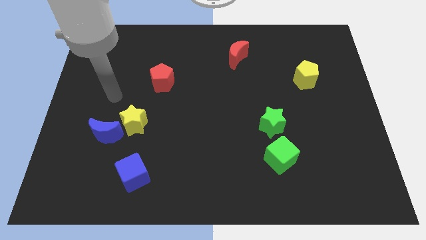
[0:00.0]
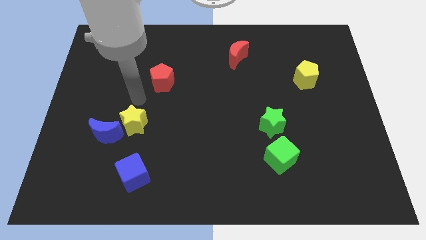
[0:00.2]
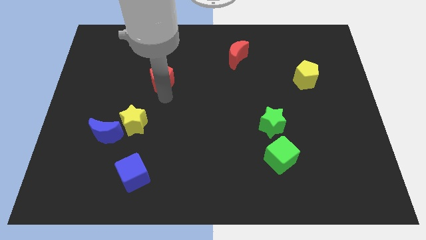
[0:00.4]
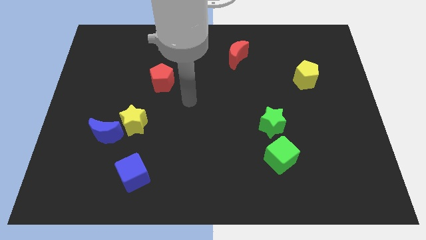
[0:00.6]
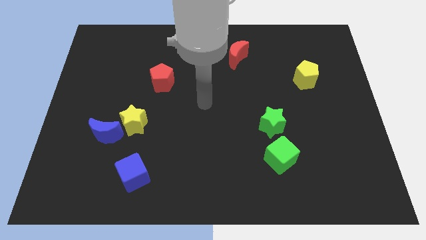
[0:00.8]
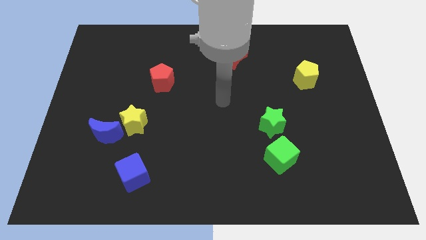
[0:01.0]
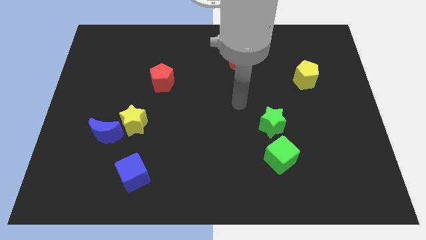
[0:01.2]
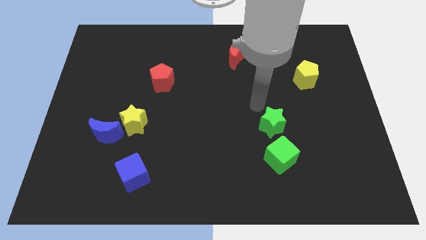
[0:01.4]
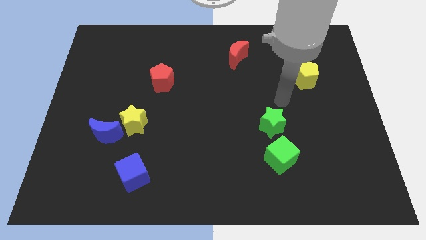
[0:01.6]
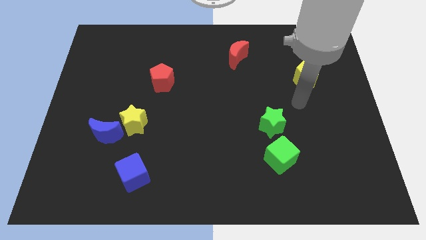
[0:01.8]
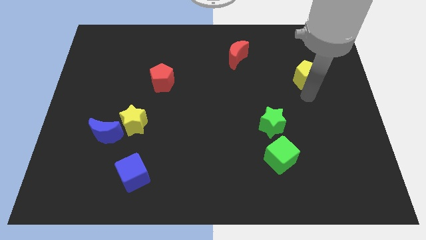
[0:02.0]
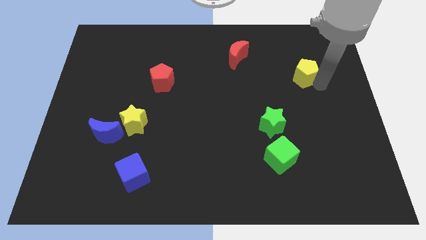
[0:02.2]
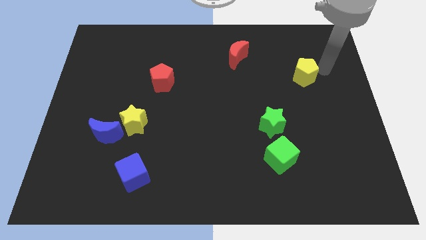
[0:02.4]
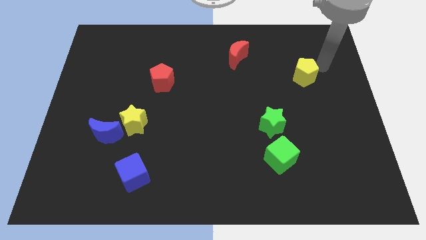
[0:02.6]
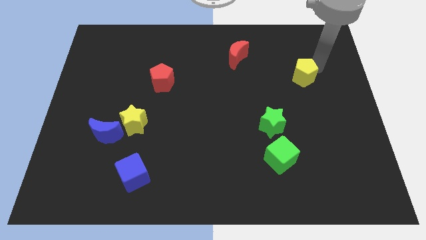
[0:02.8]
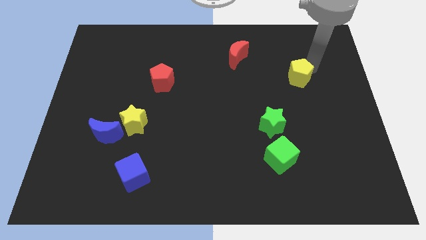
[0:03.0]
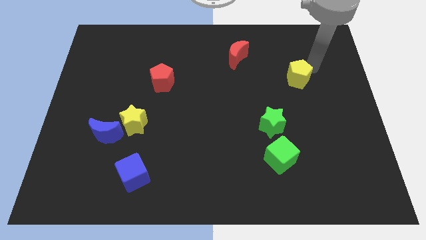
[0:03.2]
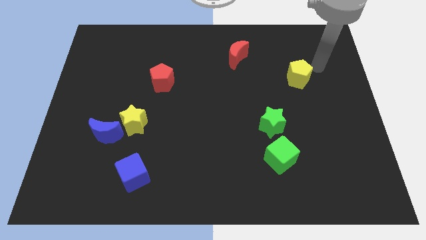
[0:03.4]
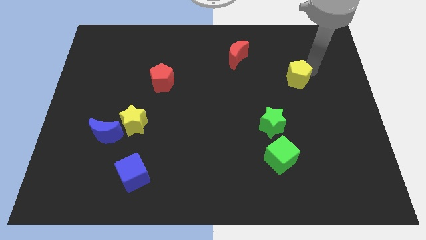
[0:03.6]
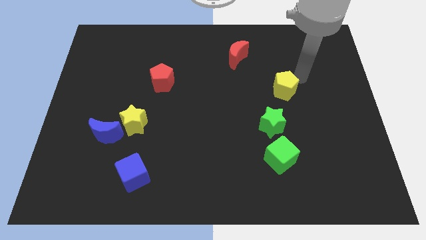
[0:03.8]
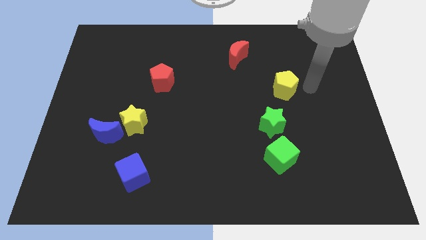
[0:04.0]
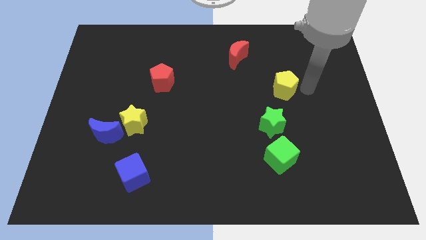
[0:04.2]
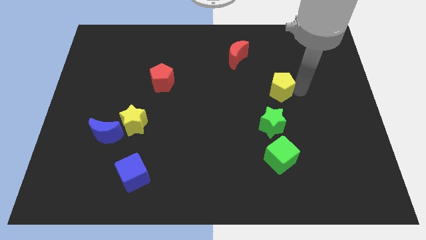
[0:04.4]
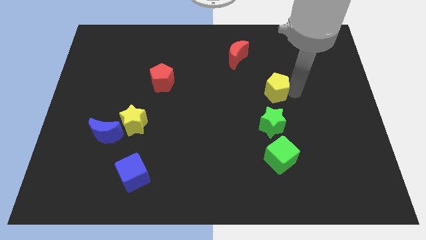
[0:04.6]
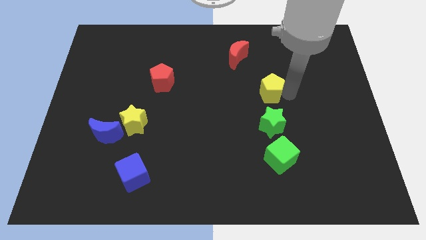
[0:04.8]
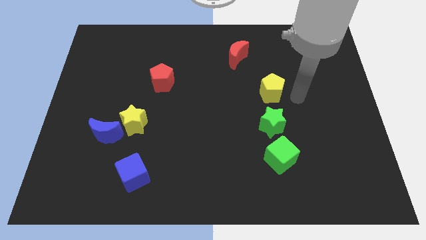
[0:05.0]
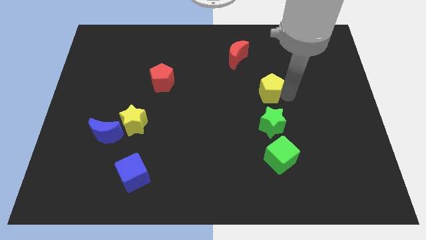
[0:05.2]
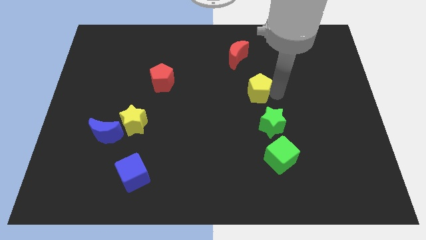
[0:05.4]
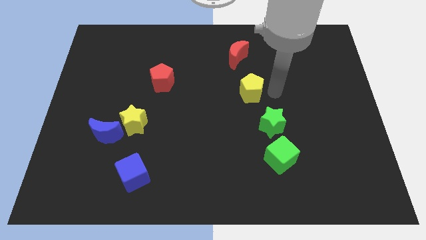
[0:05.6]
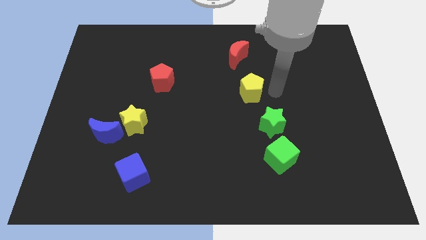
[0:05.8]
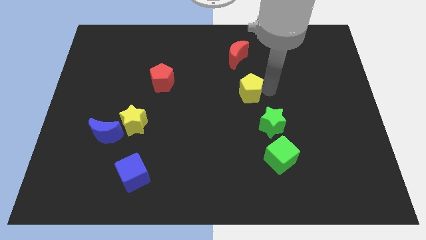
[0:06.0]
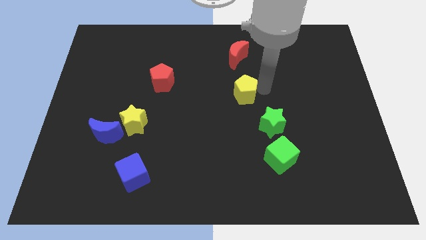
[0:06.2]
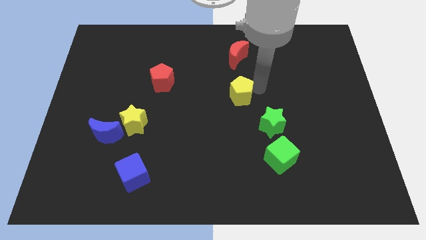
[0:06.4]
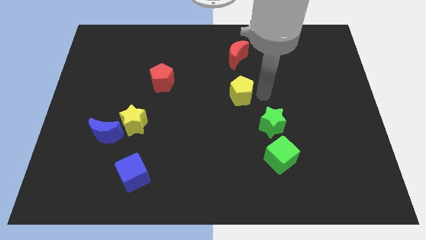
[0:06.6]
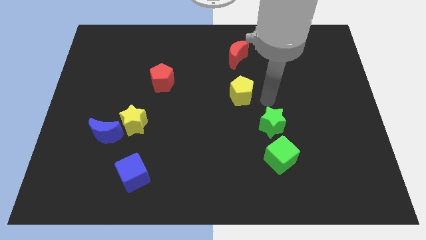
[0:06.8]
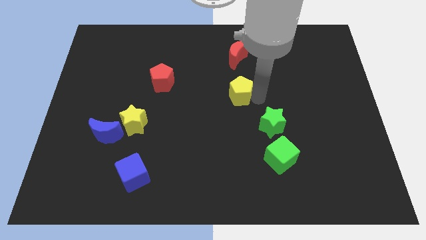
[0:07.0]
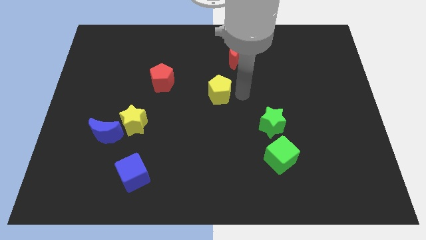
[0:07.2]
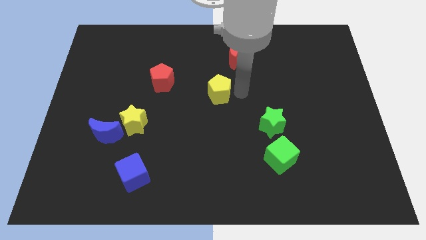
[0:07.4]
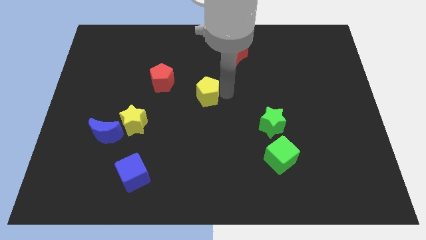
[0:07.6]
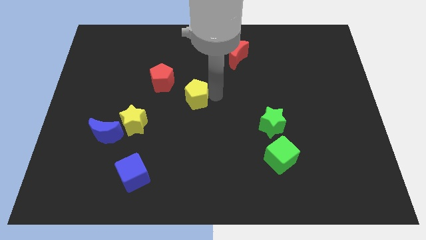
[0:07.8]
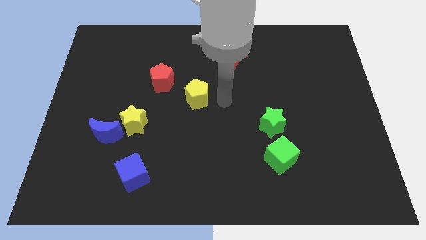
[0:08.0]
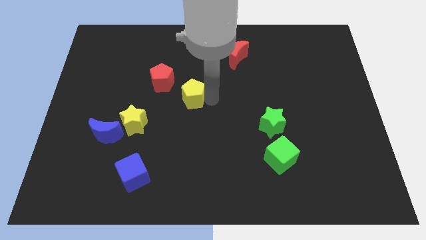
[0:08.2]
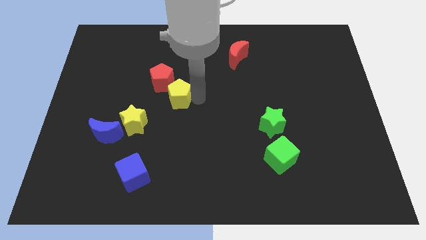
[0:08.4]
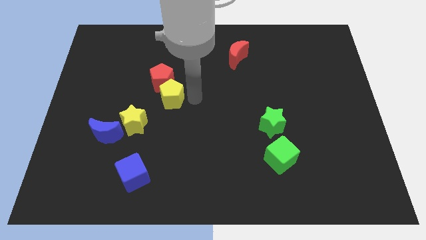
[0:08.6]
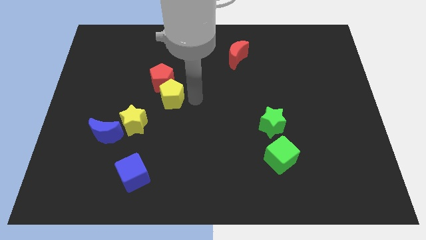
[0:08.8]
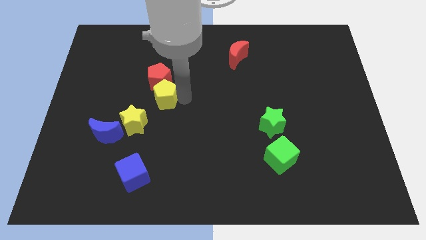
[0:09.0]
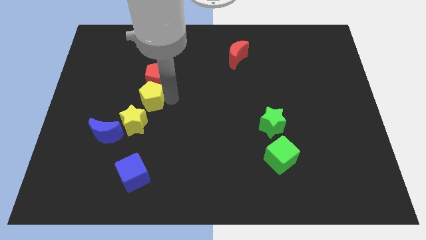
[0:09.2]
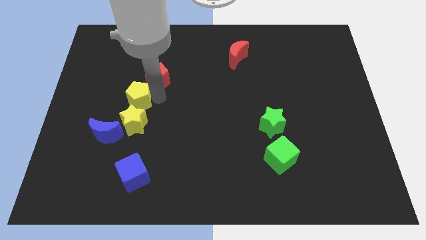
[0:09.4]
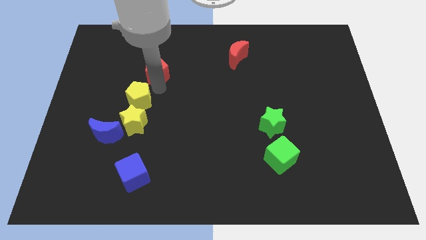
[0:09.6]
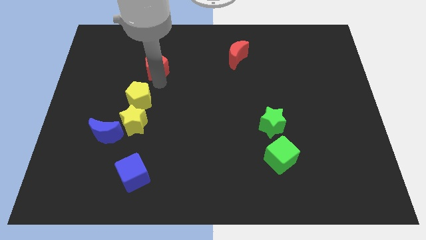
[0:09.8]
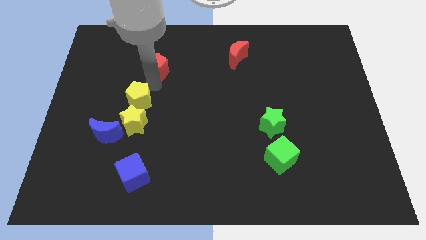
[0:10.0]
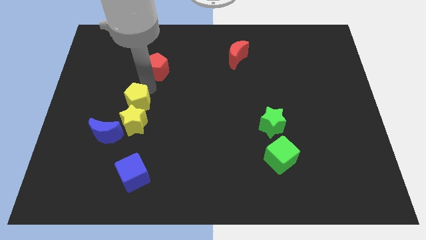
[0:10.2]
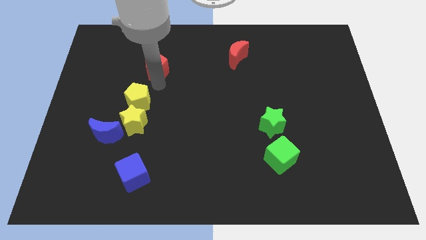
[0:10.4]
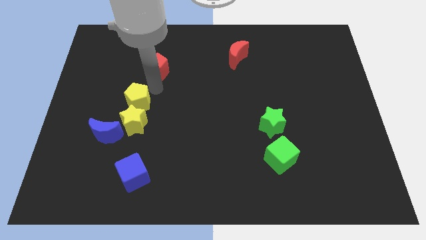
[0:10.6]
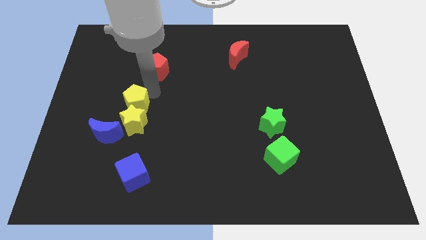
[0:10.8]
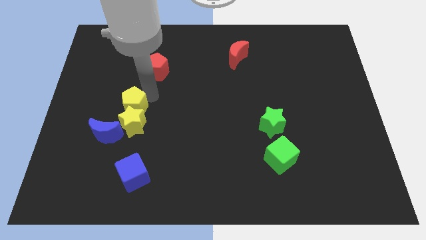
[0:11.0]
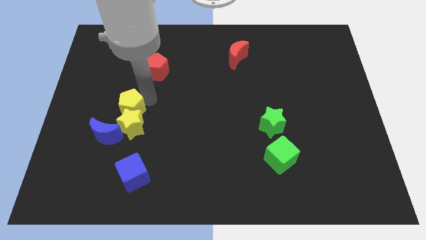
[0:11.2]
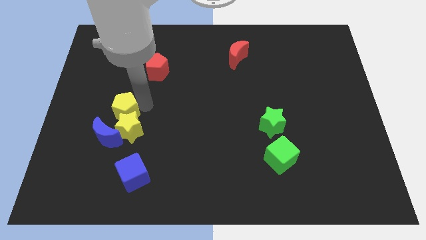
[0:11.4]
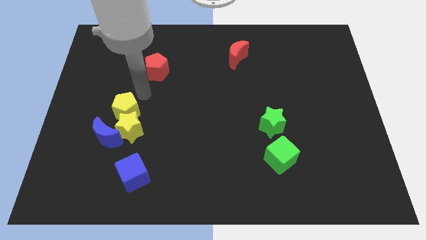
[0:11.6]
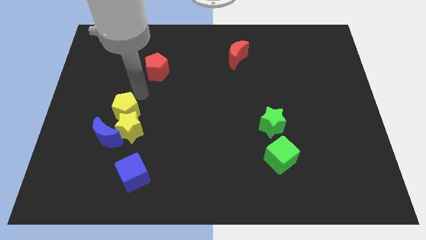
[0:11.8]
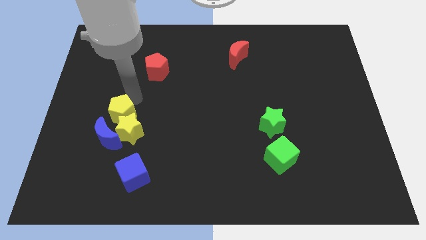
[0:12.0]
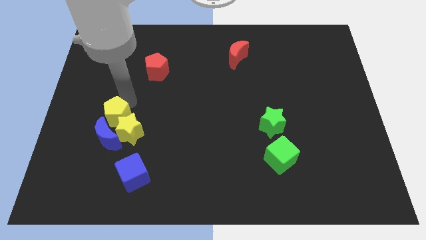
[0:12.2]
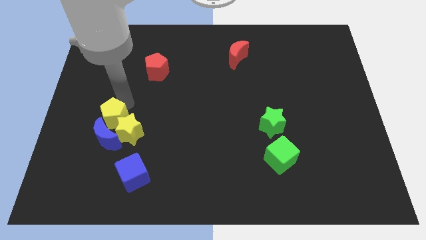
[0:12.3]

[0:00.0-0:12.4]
slide the yellow pentagon towards the blue moon

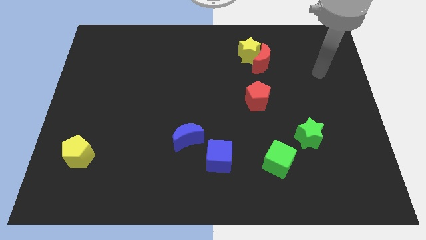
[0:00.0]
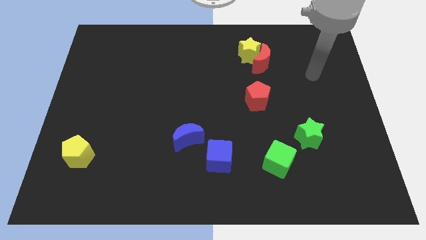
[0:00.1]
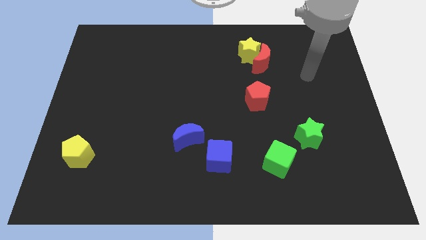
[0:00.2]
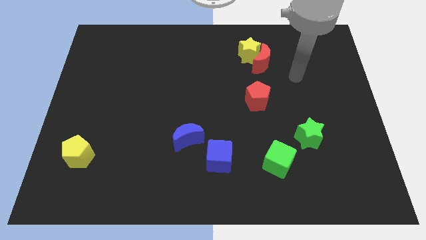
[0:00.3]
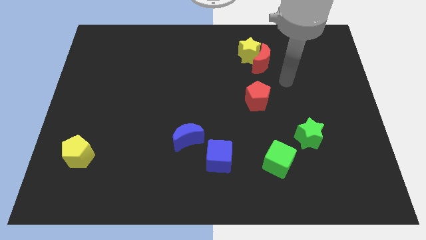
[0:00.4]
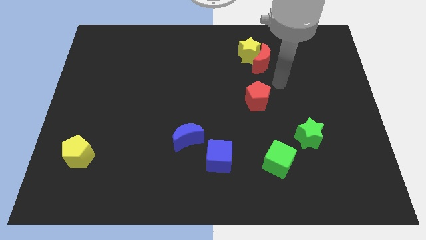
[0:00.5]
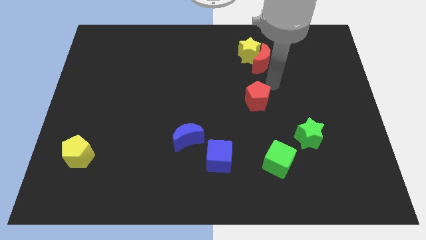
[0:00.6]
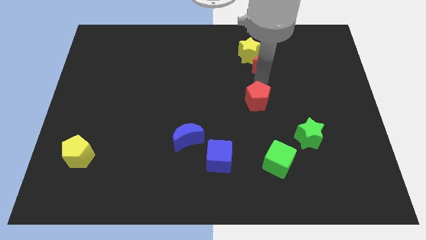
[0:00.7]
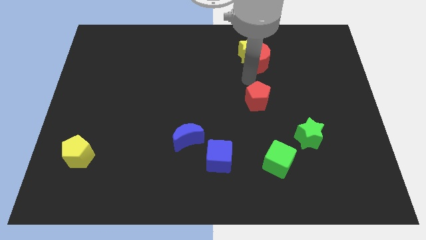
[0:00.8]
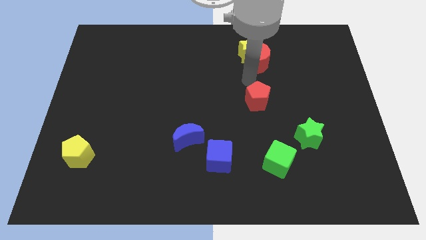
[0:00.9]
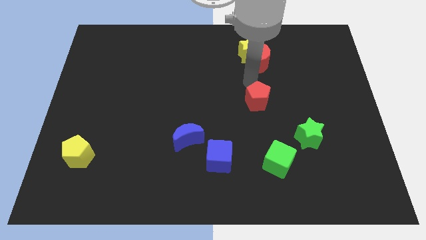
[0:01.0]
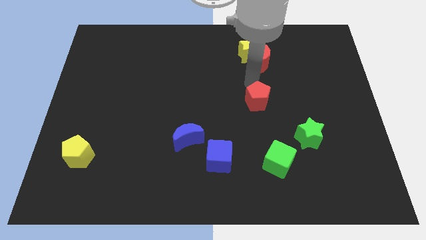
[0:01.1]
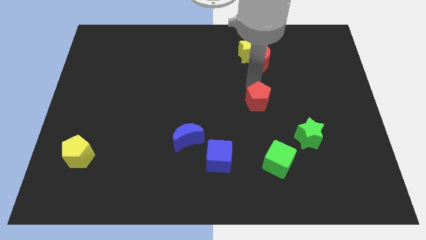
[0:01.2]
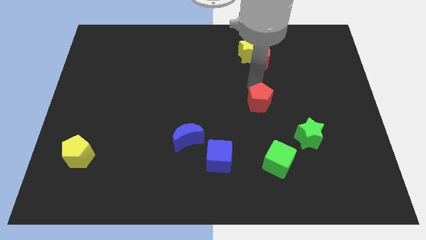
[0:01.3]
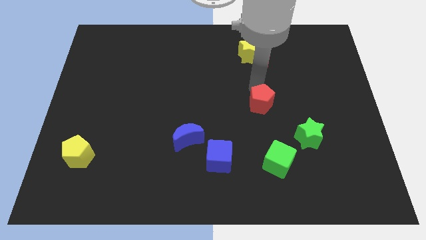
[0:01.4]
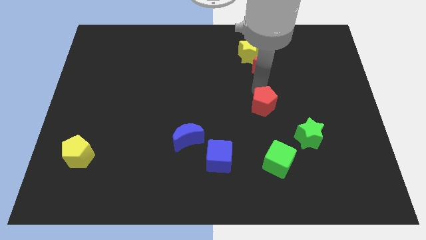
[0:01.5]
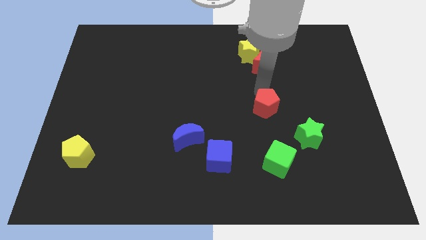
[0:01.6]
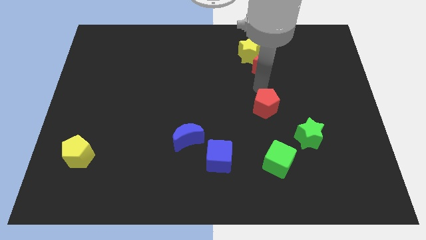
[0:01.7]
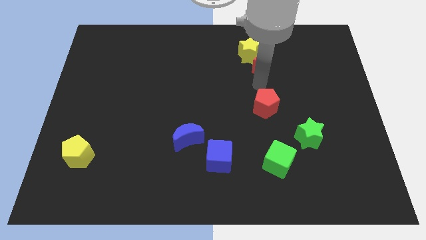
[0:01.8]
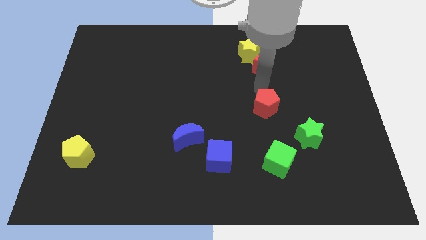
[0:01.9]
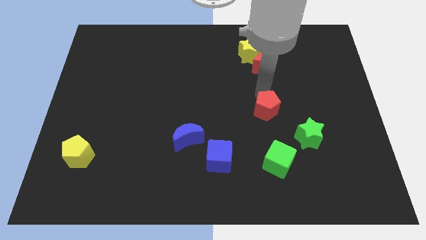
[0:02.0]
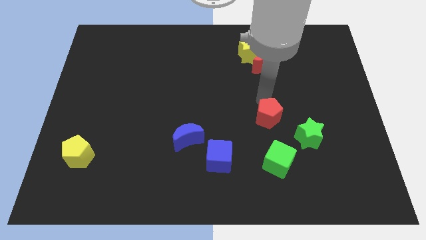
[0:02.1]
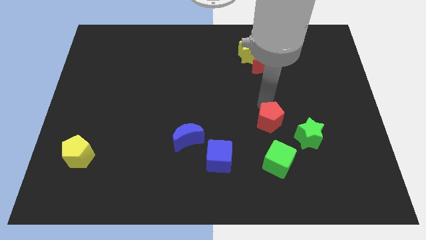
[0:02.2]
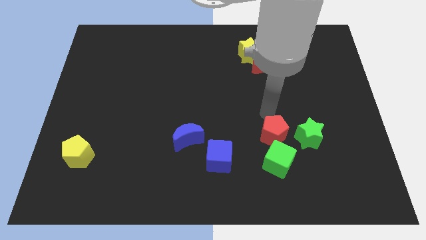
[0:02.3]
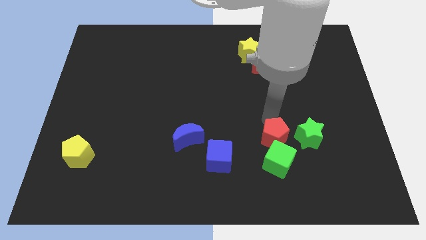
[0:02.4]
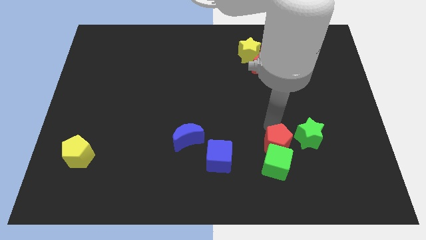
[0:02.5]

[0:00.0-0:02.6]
slide the red pentagon to the green cube
